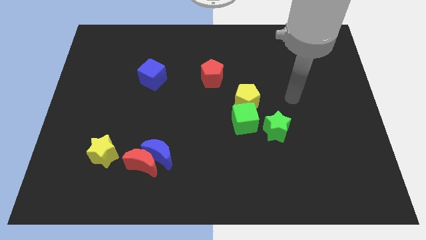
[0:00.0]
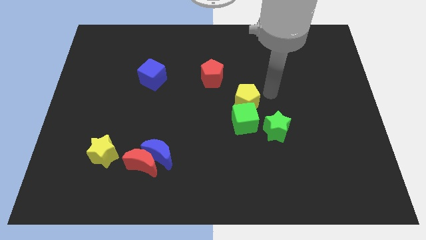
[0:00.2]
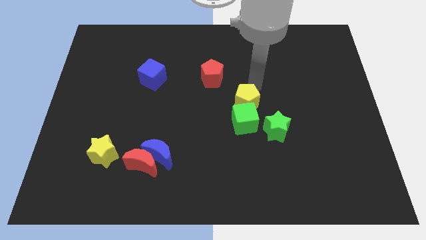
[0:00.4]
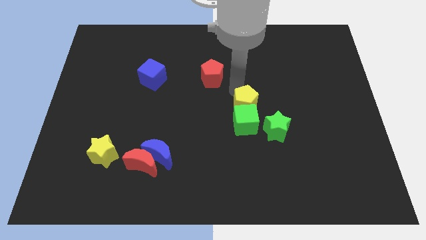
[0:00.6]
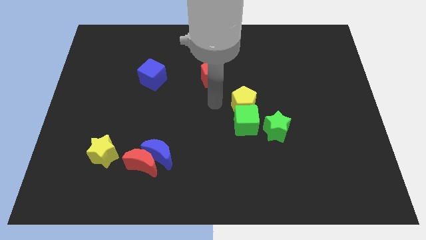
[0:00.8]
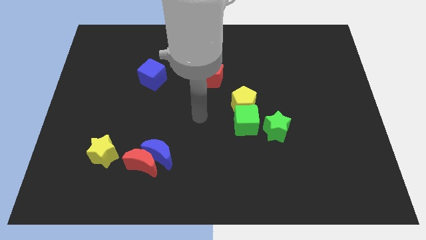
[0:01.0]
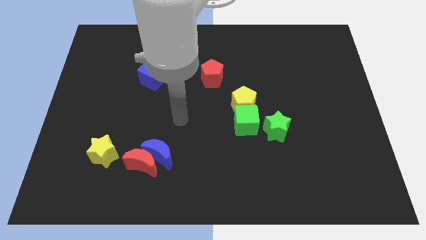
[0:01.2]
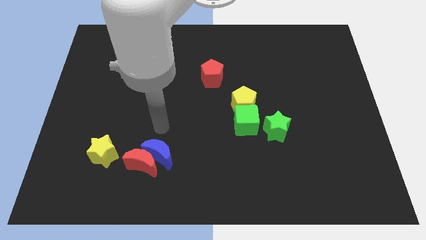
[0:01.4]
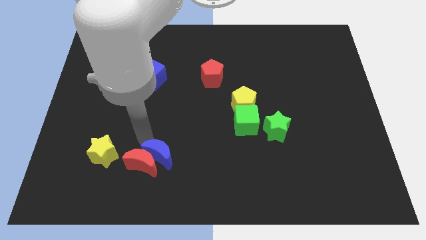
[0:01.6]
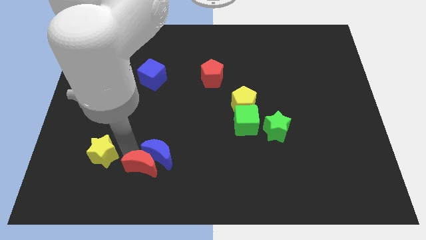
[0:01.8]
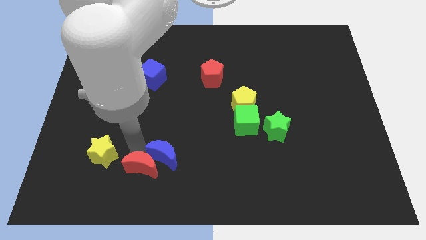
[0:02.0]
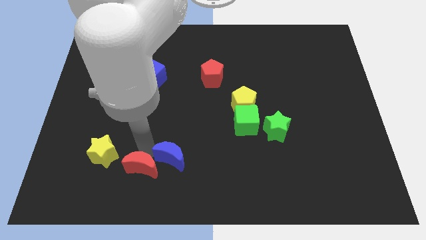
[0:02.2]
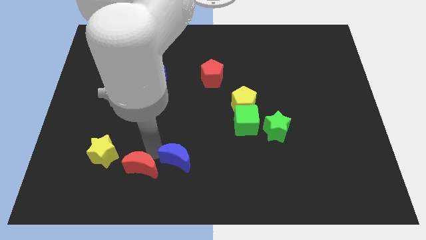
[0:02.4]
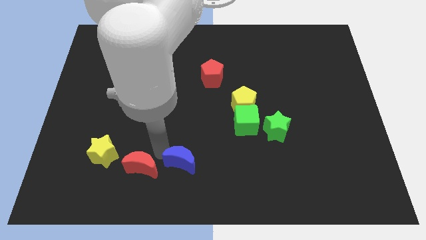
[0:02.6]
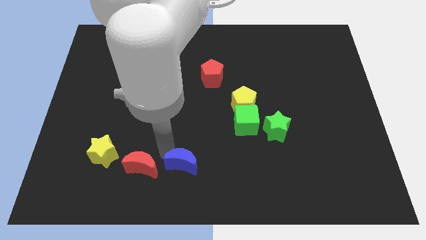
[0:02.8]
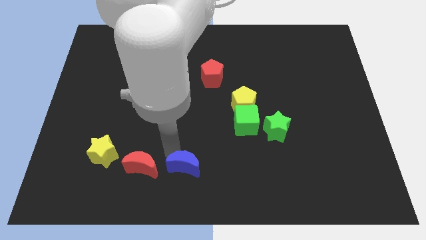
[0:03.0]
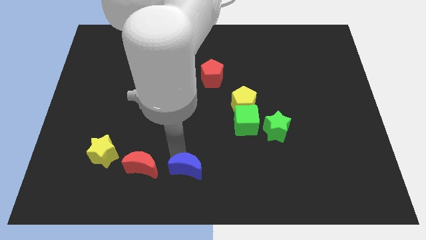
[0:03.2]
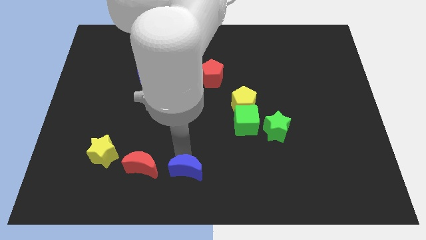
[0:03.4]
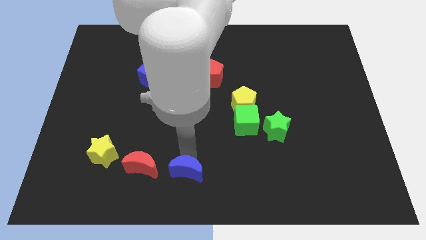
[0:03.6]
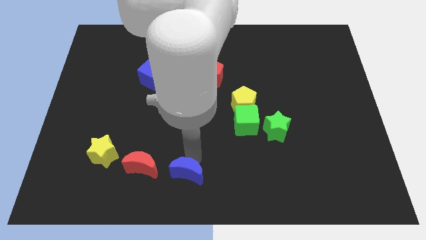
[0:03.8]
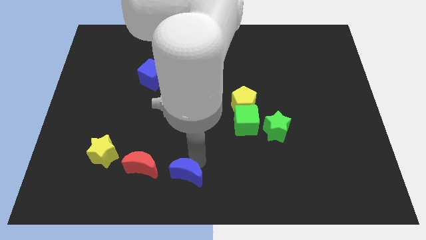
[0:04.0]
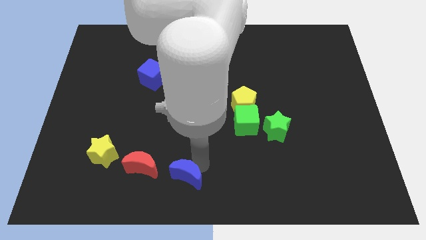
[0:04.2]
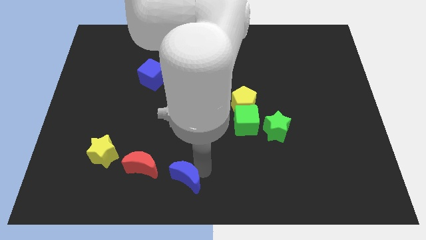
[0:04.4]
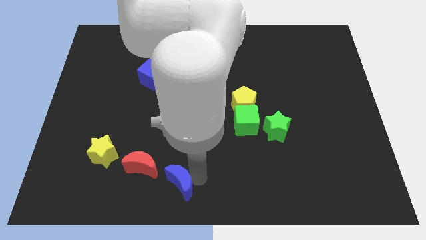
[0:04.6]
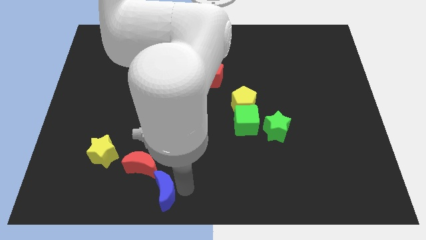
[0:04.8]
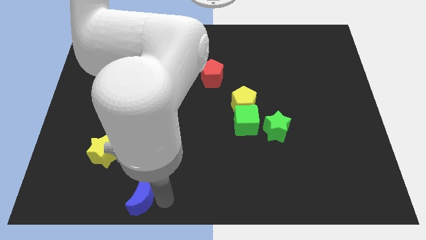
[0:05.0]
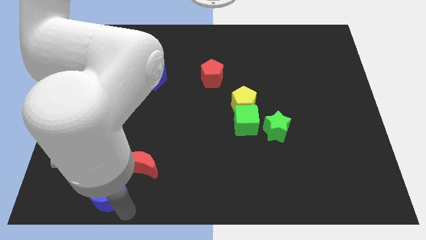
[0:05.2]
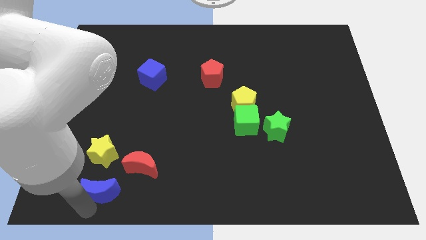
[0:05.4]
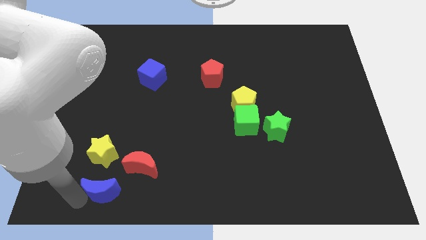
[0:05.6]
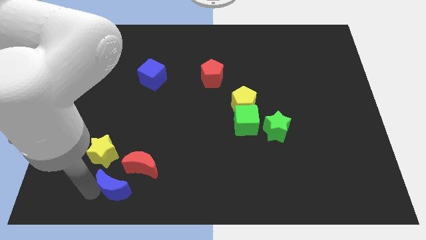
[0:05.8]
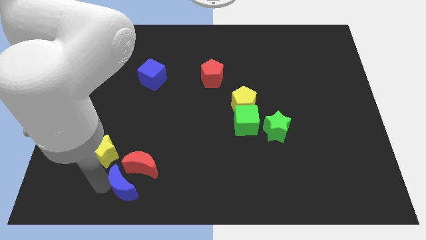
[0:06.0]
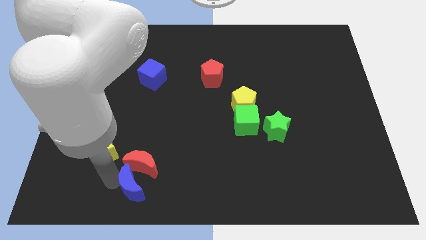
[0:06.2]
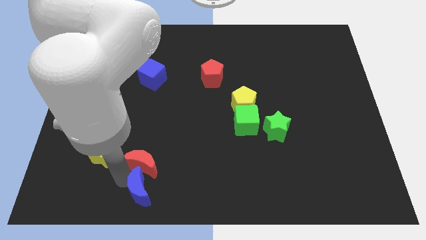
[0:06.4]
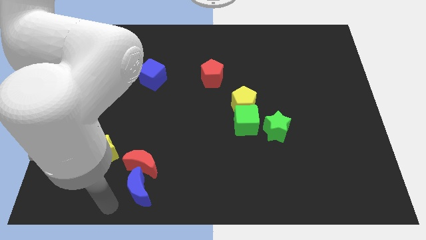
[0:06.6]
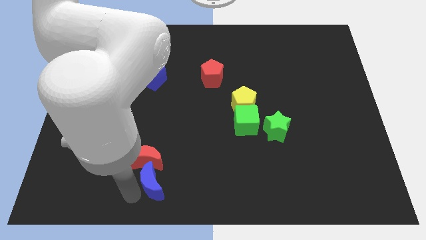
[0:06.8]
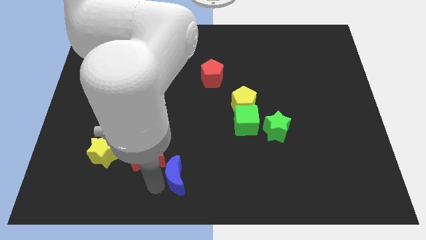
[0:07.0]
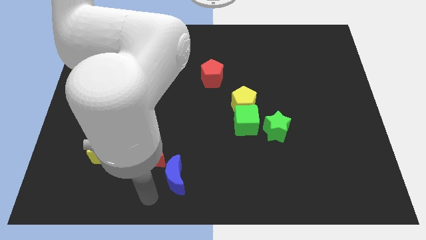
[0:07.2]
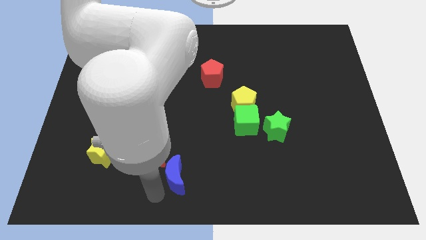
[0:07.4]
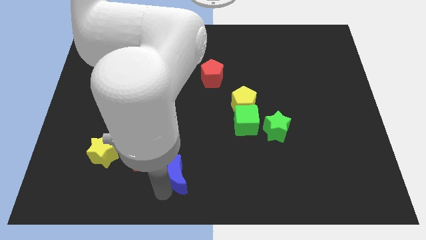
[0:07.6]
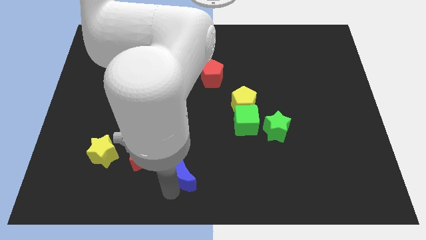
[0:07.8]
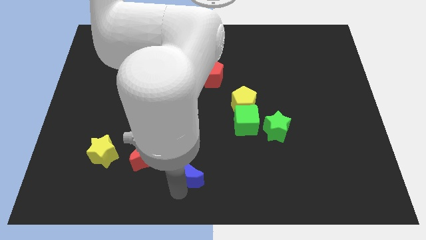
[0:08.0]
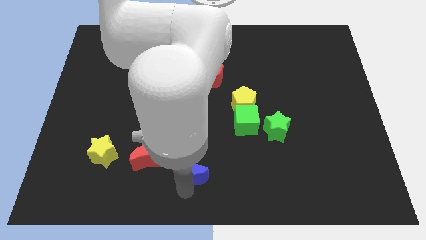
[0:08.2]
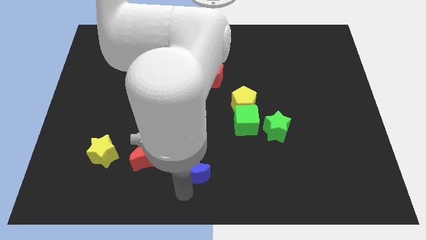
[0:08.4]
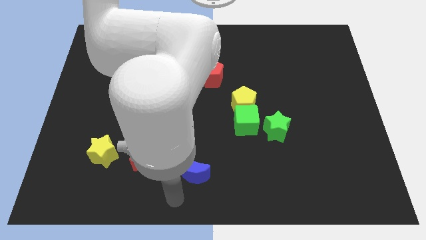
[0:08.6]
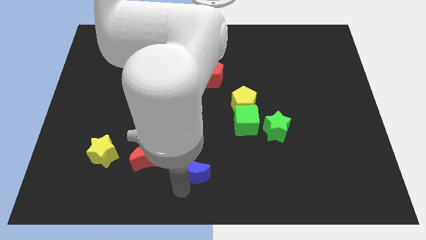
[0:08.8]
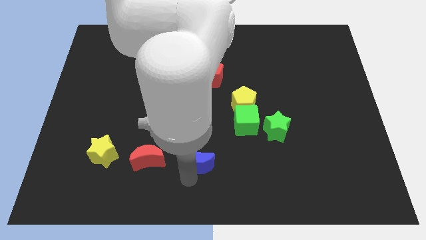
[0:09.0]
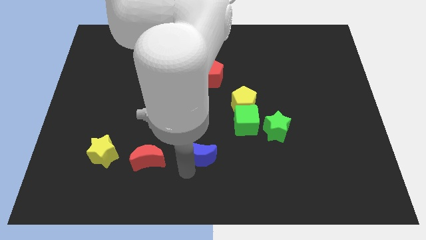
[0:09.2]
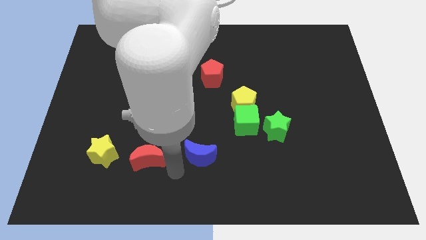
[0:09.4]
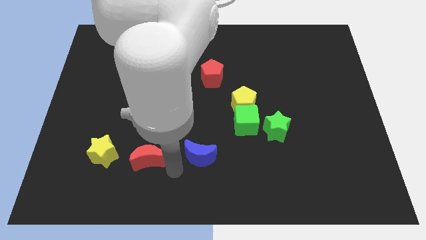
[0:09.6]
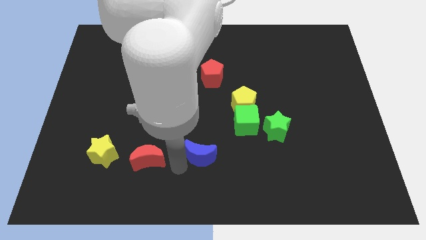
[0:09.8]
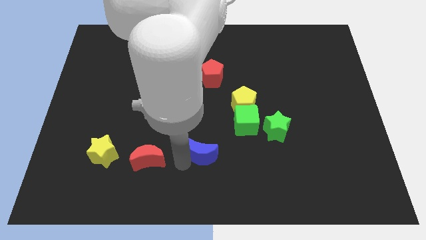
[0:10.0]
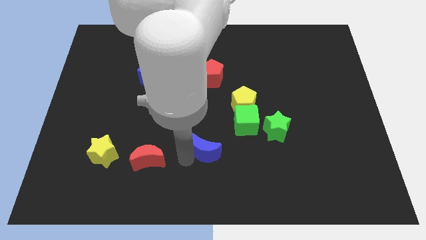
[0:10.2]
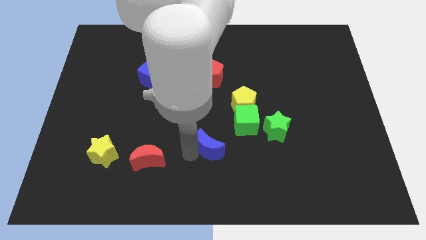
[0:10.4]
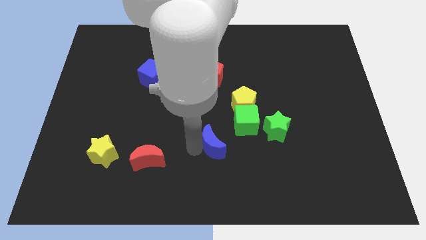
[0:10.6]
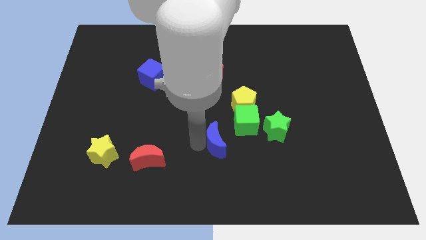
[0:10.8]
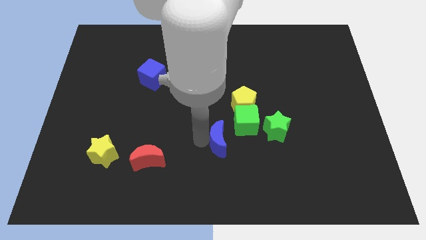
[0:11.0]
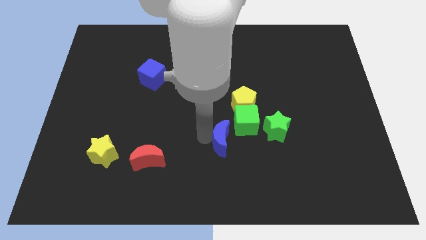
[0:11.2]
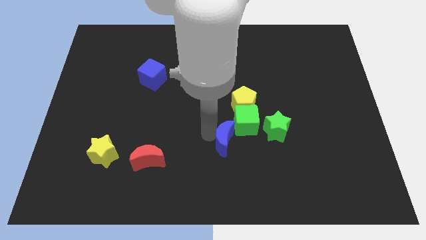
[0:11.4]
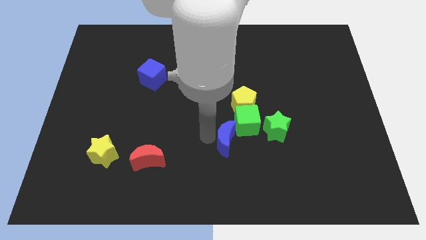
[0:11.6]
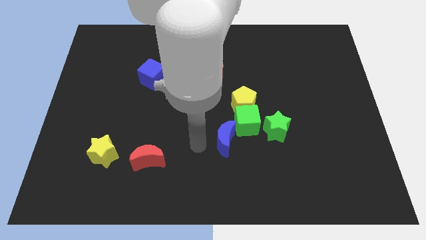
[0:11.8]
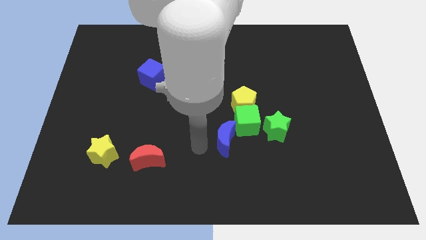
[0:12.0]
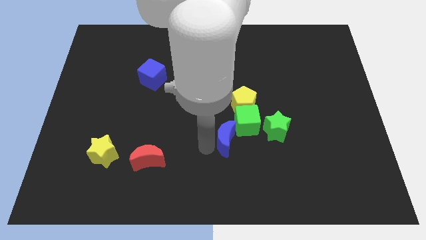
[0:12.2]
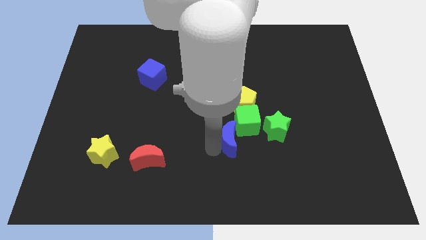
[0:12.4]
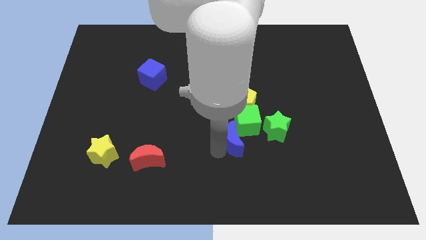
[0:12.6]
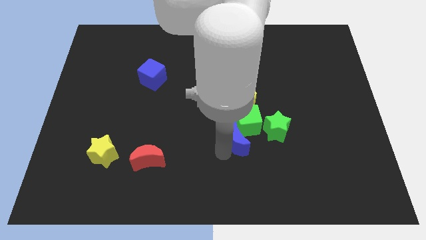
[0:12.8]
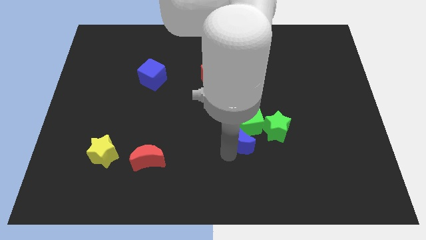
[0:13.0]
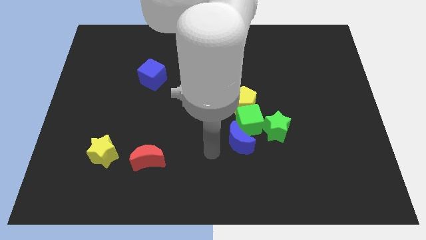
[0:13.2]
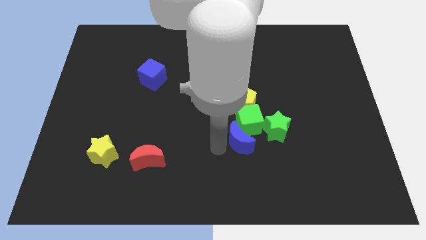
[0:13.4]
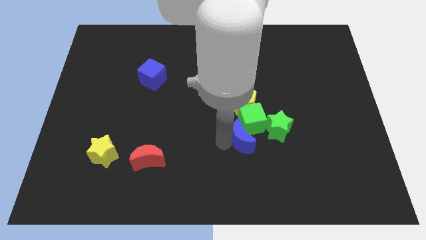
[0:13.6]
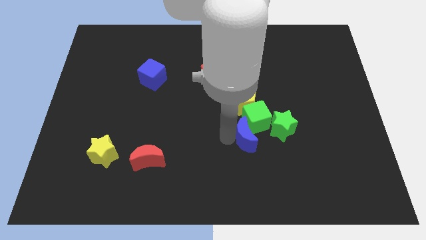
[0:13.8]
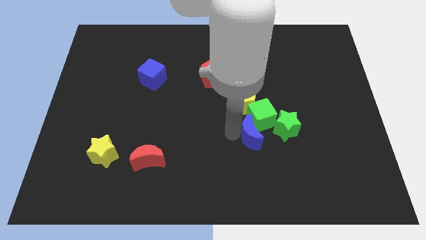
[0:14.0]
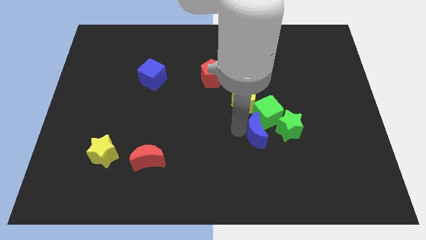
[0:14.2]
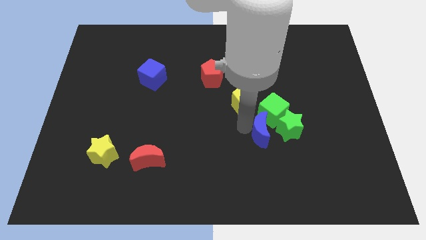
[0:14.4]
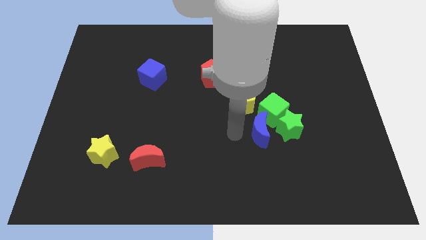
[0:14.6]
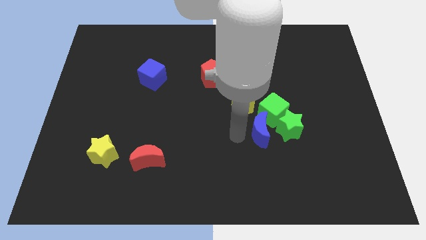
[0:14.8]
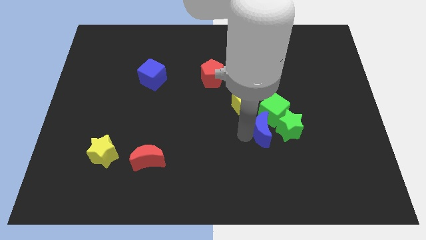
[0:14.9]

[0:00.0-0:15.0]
move the blue moon towards the green star
